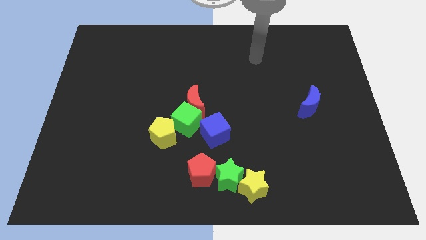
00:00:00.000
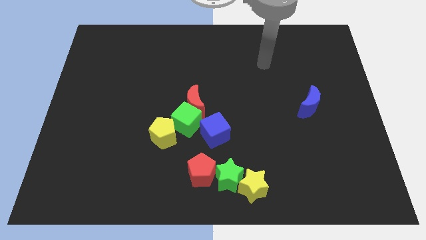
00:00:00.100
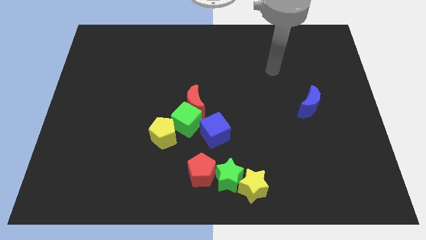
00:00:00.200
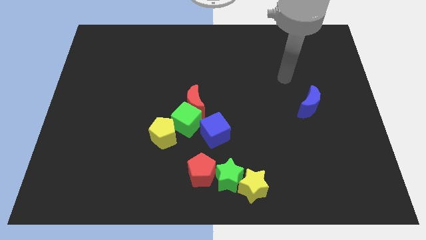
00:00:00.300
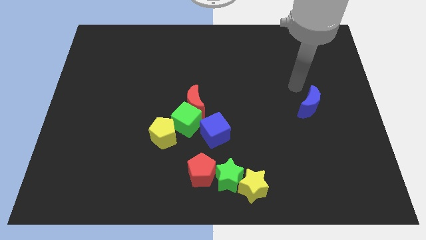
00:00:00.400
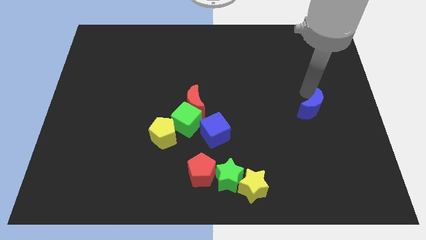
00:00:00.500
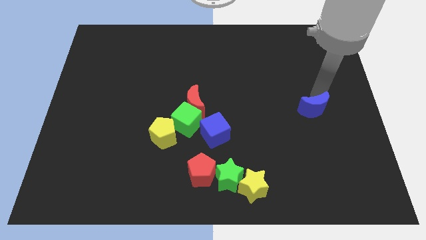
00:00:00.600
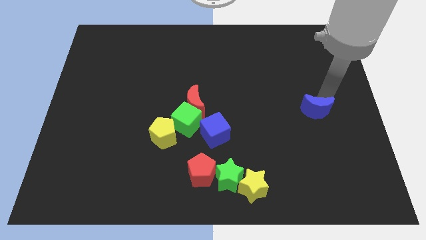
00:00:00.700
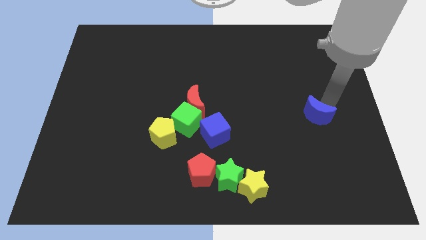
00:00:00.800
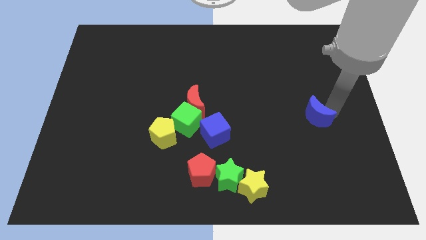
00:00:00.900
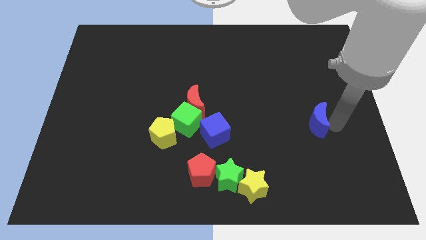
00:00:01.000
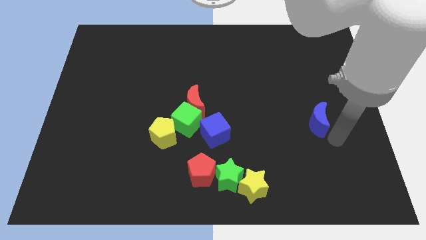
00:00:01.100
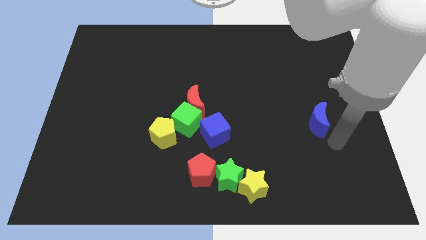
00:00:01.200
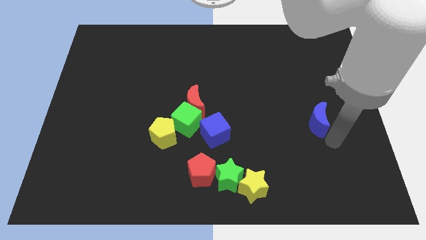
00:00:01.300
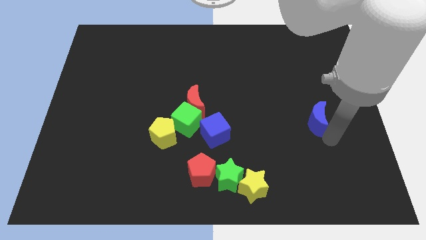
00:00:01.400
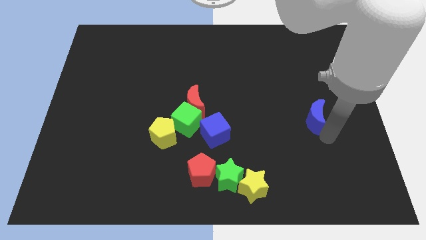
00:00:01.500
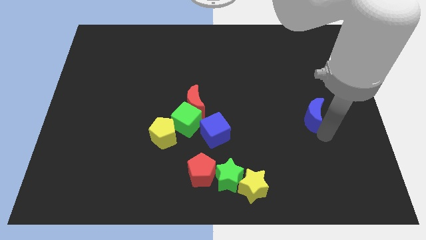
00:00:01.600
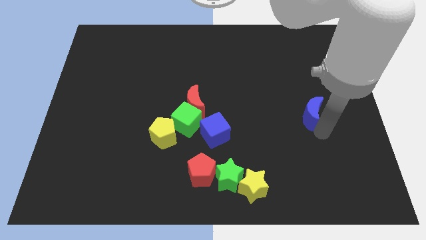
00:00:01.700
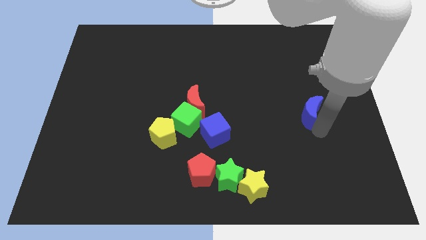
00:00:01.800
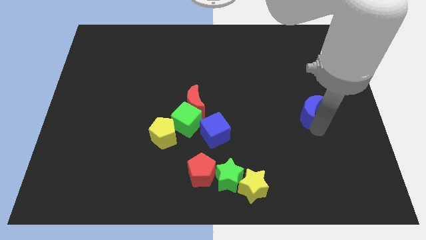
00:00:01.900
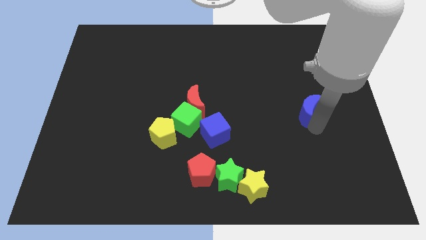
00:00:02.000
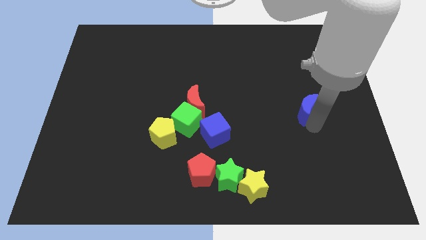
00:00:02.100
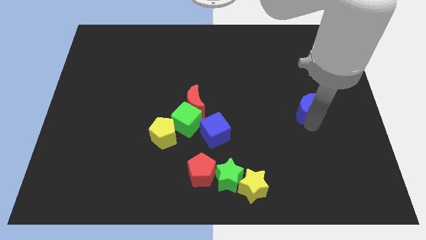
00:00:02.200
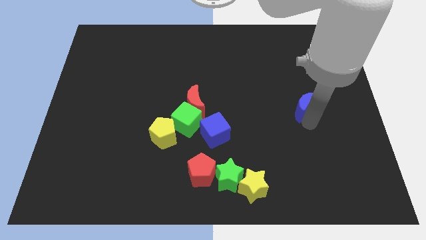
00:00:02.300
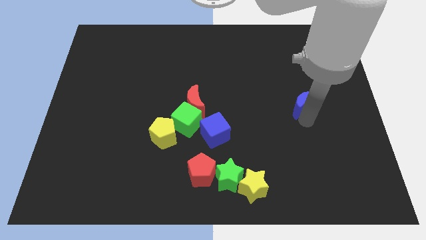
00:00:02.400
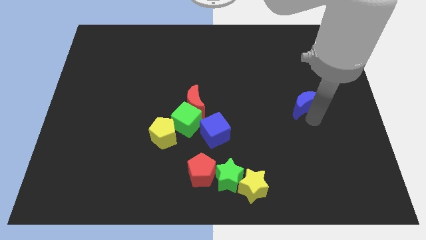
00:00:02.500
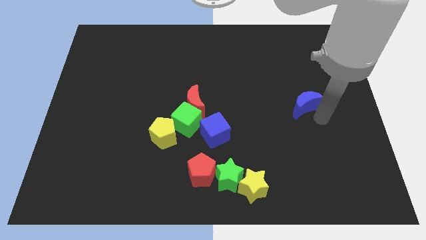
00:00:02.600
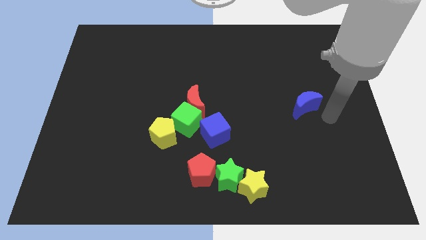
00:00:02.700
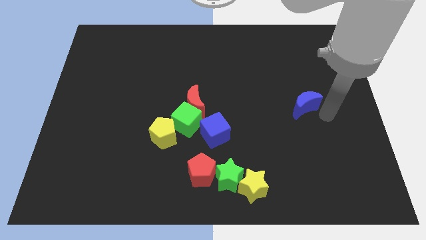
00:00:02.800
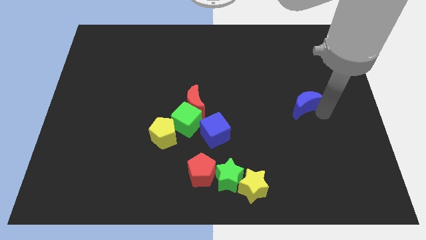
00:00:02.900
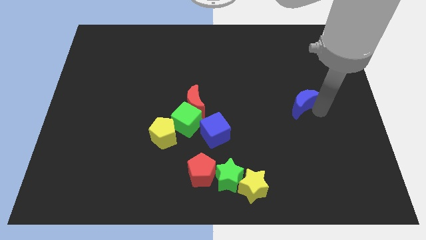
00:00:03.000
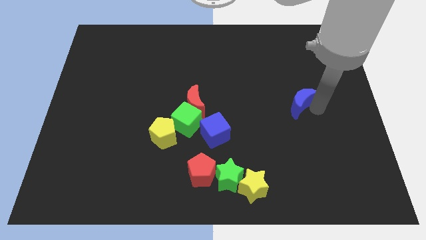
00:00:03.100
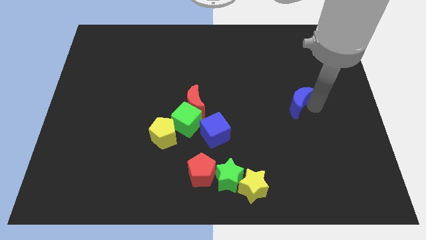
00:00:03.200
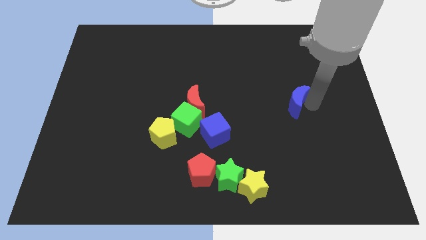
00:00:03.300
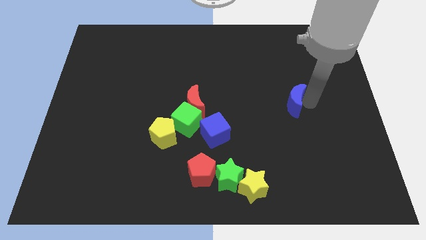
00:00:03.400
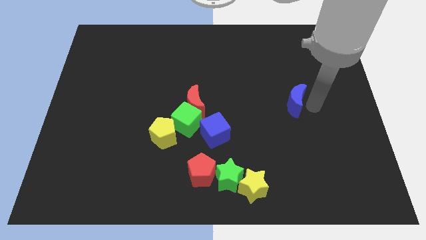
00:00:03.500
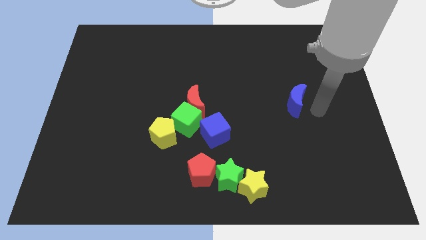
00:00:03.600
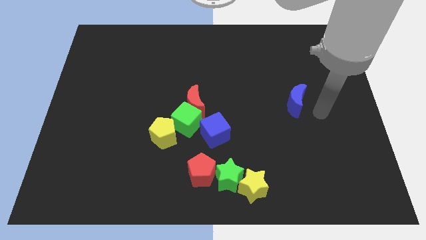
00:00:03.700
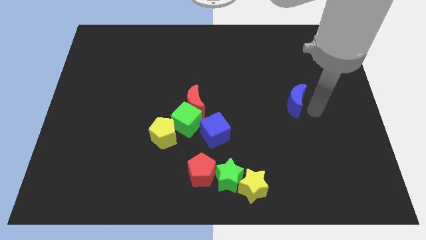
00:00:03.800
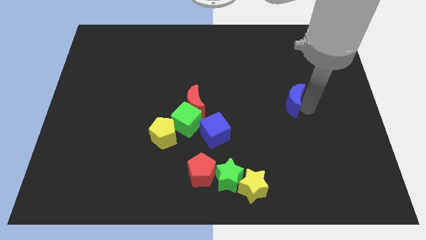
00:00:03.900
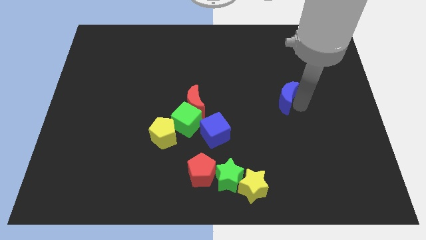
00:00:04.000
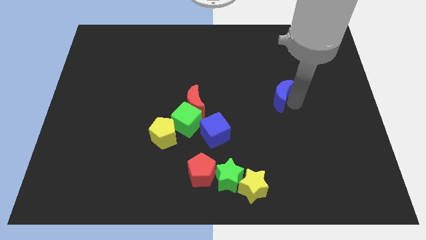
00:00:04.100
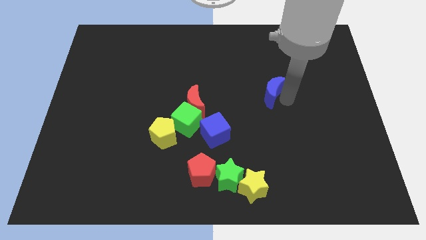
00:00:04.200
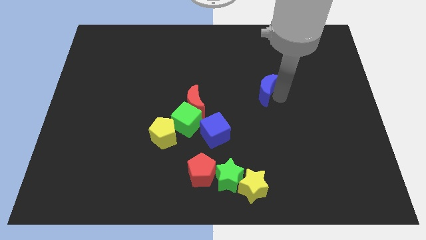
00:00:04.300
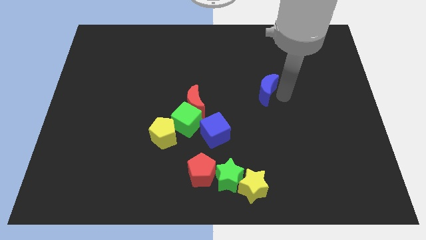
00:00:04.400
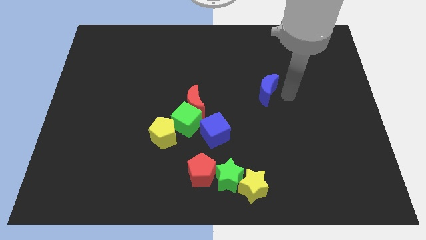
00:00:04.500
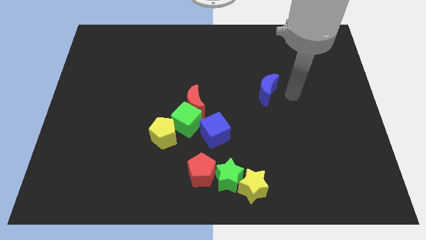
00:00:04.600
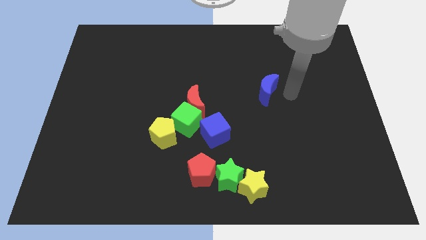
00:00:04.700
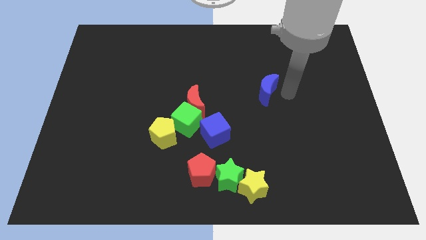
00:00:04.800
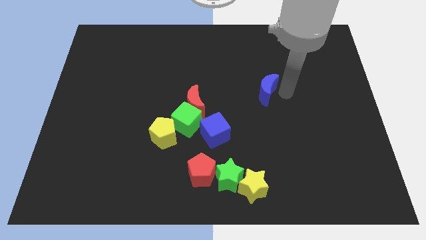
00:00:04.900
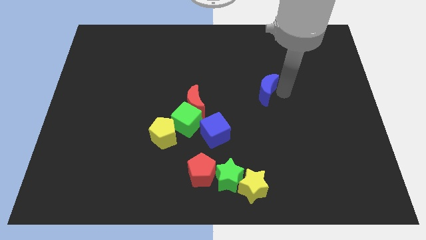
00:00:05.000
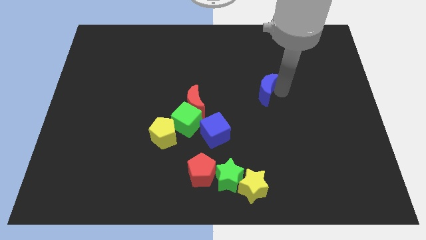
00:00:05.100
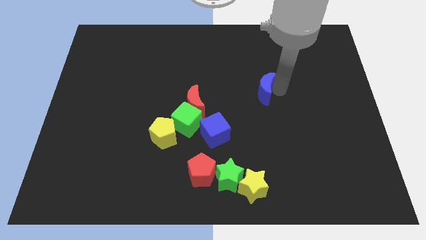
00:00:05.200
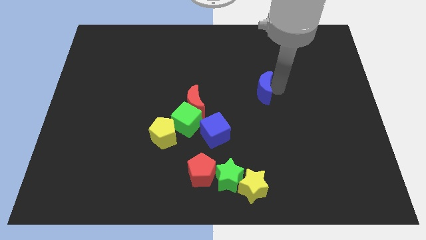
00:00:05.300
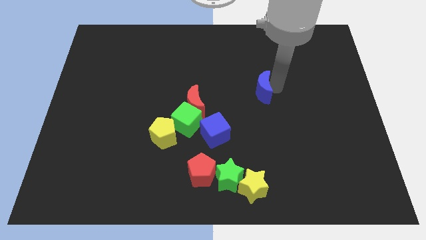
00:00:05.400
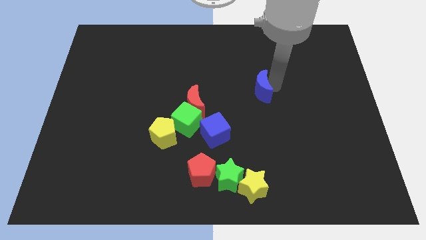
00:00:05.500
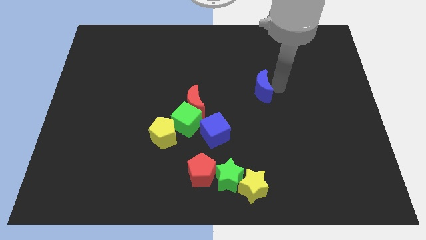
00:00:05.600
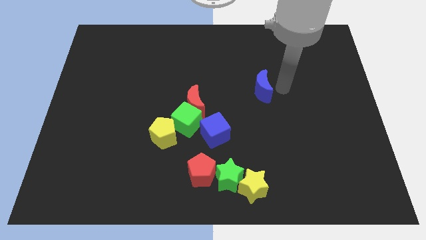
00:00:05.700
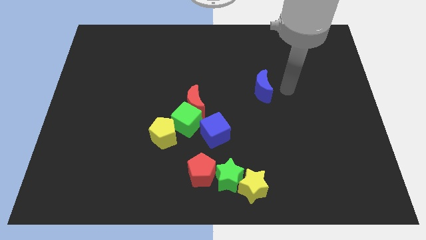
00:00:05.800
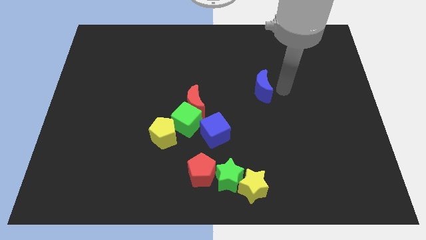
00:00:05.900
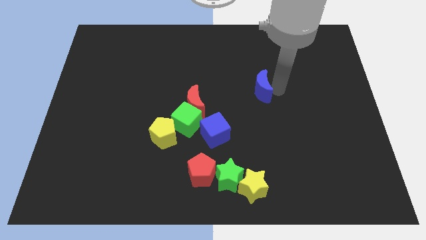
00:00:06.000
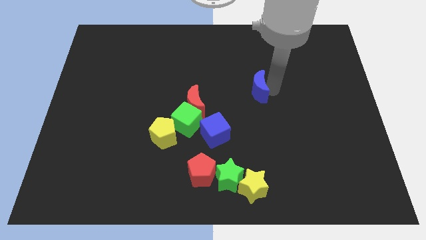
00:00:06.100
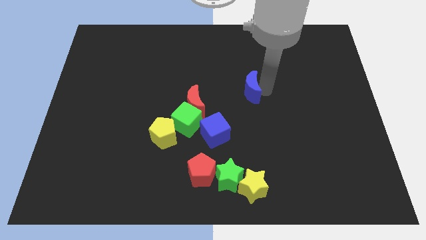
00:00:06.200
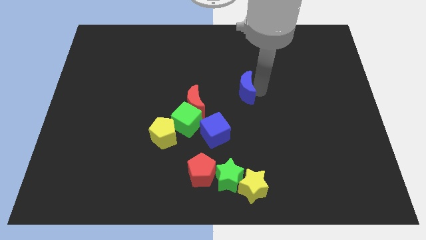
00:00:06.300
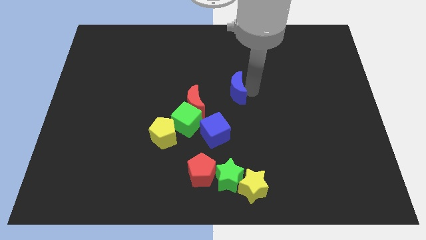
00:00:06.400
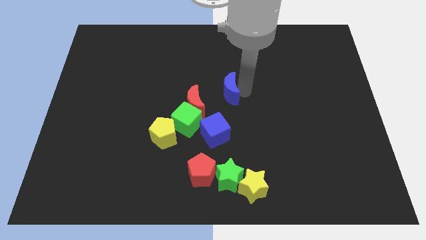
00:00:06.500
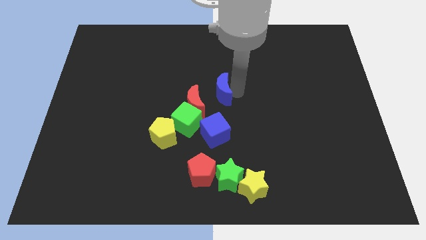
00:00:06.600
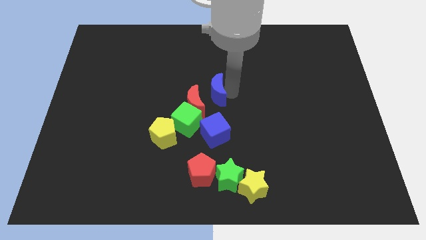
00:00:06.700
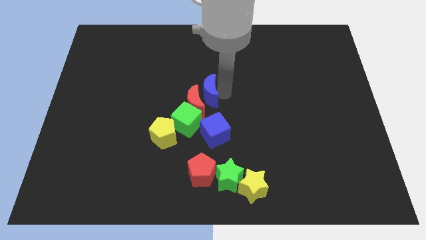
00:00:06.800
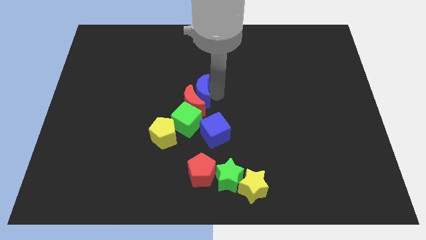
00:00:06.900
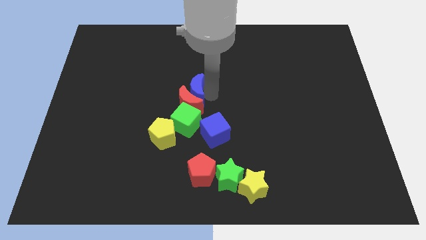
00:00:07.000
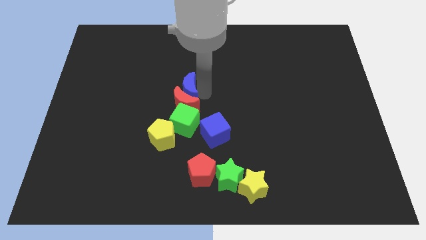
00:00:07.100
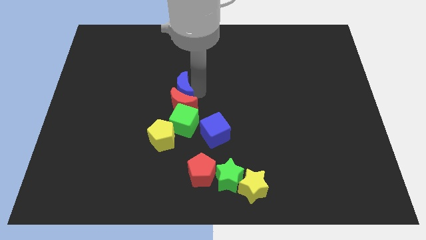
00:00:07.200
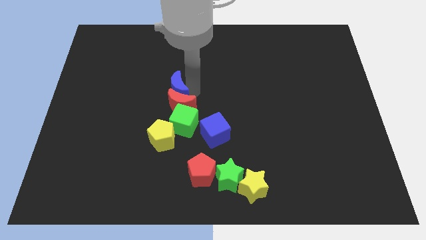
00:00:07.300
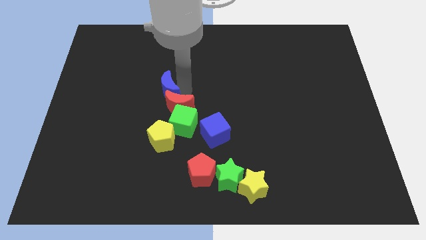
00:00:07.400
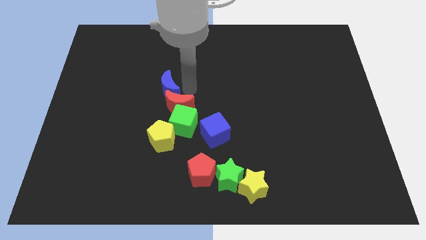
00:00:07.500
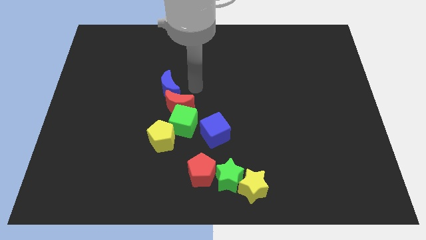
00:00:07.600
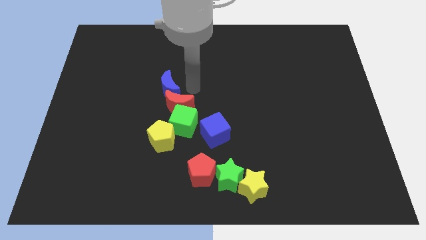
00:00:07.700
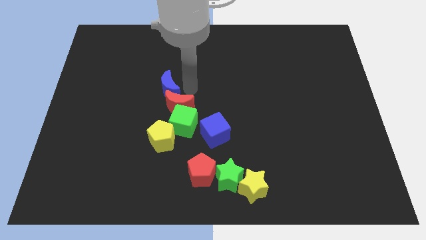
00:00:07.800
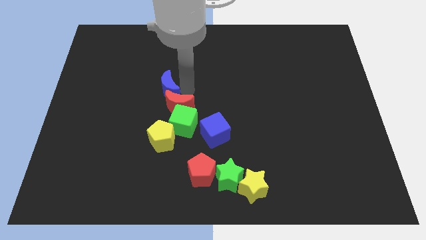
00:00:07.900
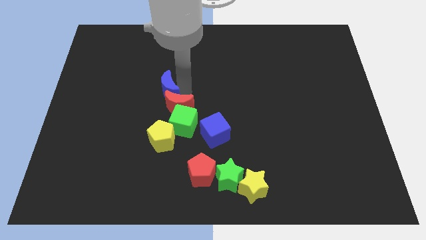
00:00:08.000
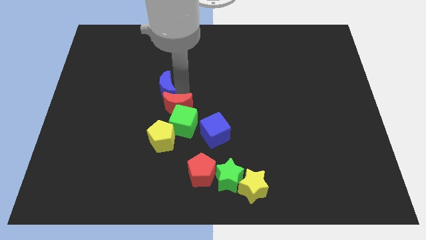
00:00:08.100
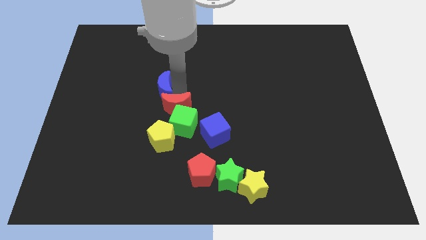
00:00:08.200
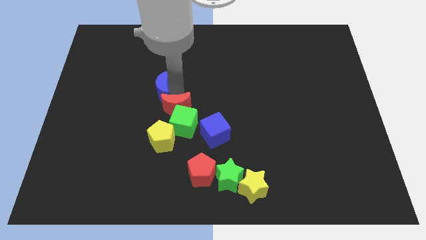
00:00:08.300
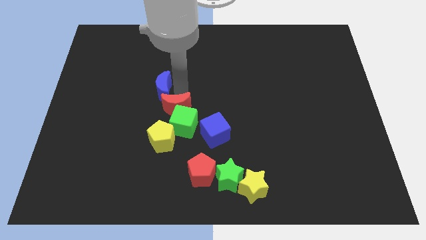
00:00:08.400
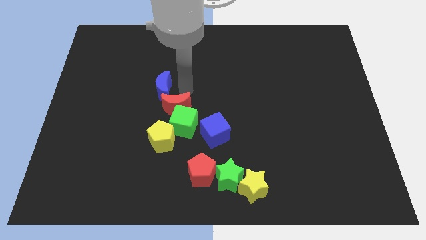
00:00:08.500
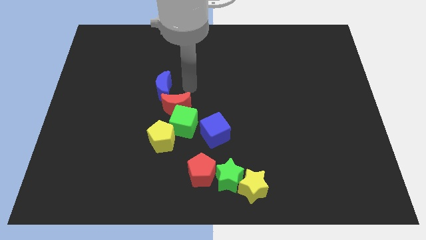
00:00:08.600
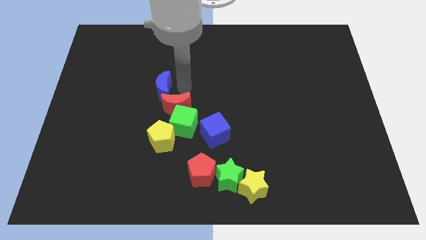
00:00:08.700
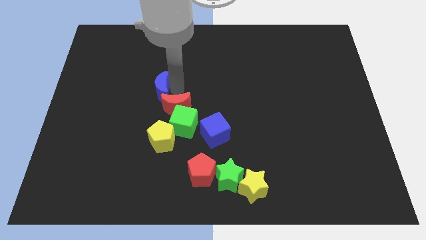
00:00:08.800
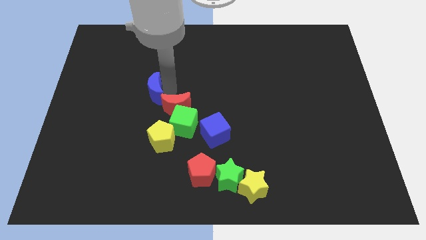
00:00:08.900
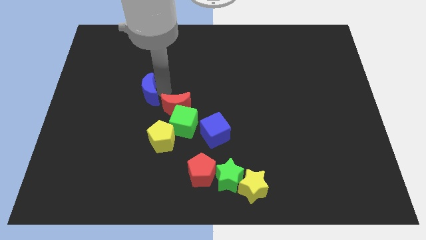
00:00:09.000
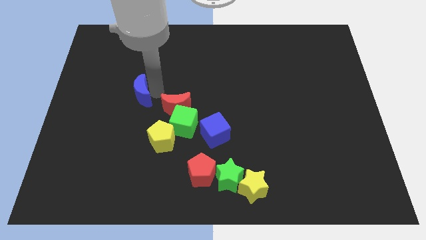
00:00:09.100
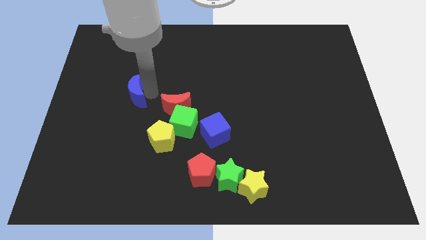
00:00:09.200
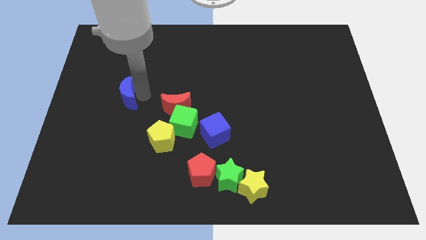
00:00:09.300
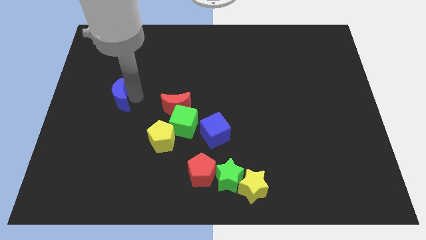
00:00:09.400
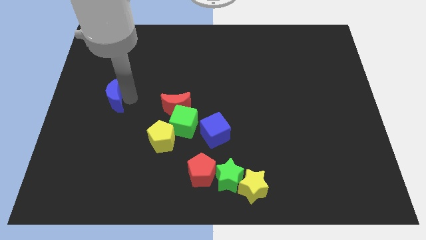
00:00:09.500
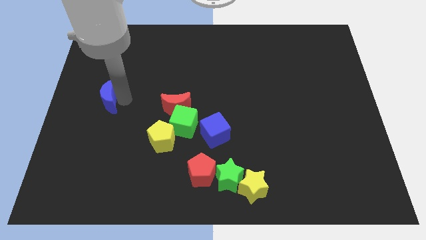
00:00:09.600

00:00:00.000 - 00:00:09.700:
push the blue moon to the left side of the board
